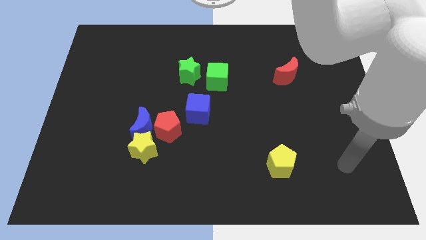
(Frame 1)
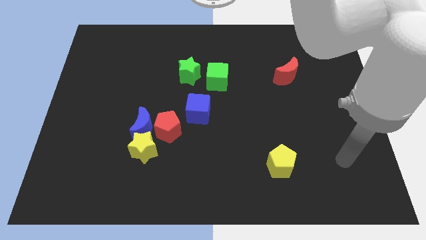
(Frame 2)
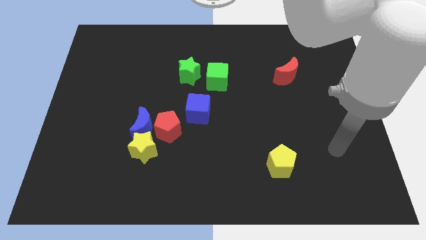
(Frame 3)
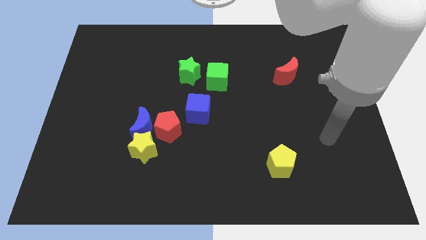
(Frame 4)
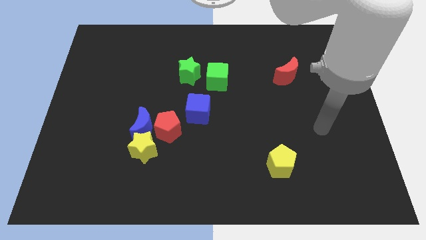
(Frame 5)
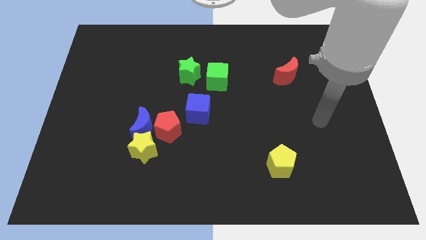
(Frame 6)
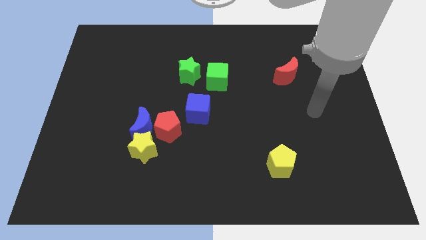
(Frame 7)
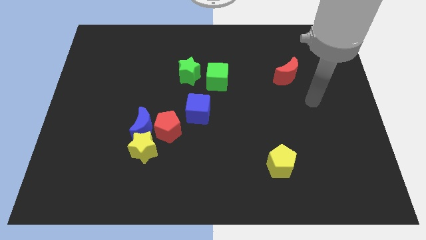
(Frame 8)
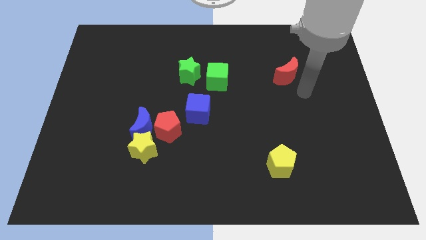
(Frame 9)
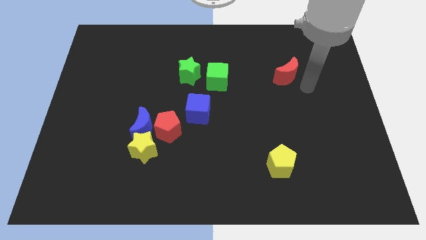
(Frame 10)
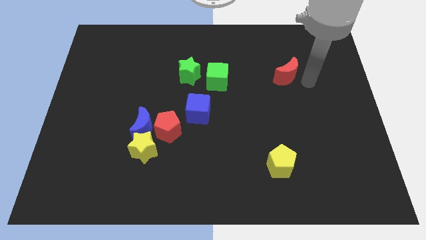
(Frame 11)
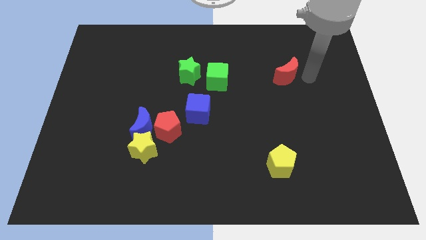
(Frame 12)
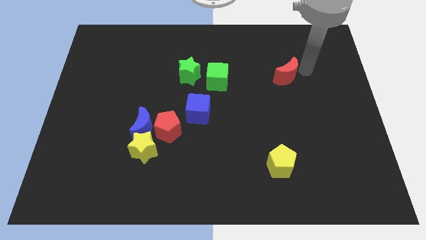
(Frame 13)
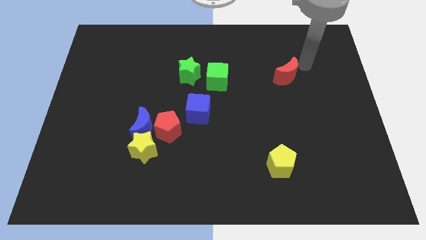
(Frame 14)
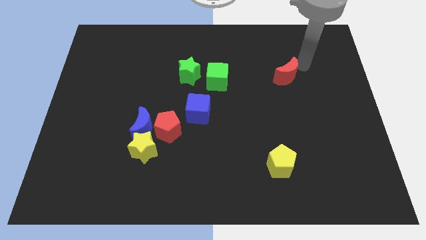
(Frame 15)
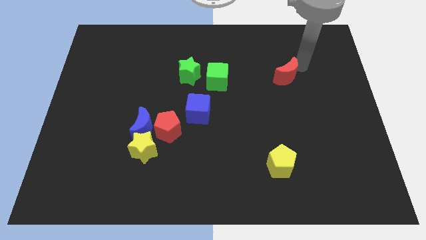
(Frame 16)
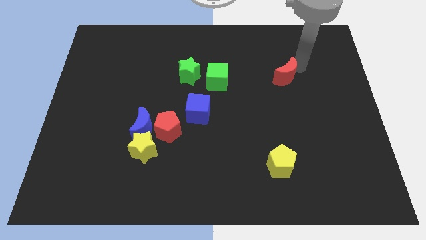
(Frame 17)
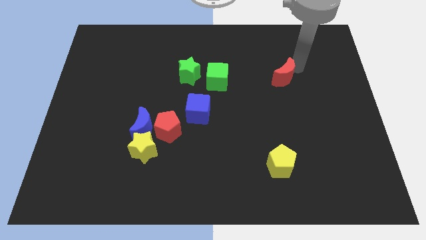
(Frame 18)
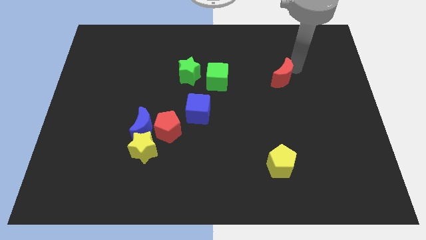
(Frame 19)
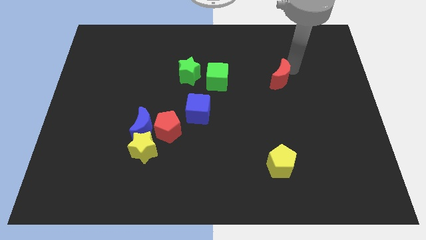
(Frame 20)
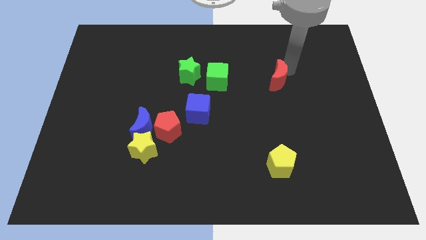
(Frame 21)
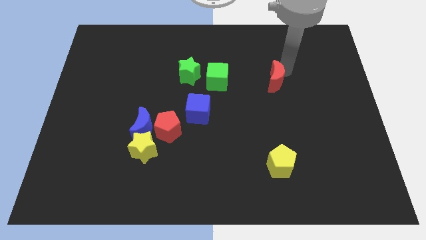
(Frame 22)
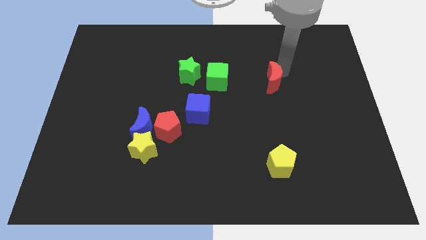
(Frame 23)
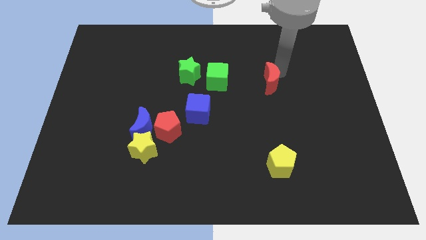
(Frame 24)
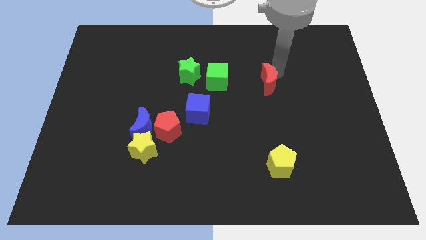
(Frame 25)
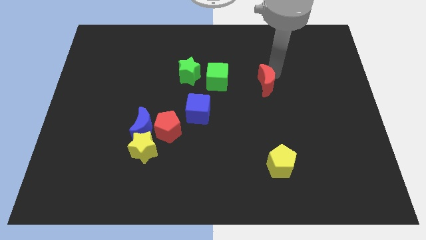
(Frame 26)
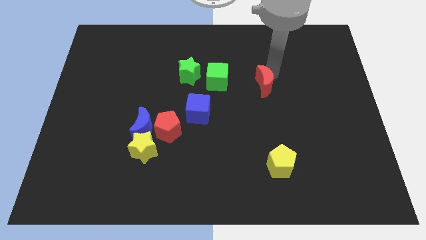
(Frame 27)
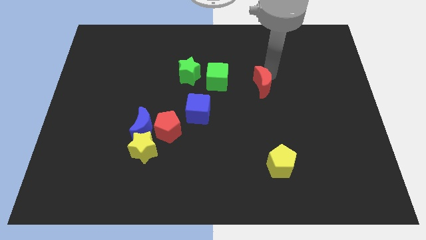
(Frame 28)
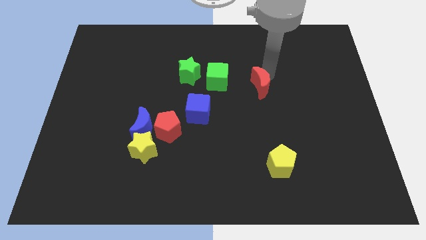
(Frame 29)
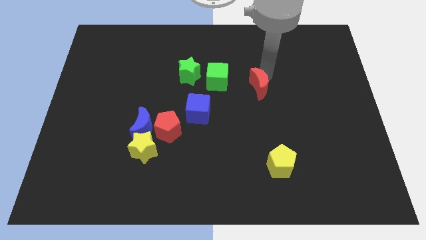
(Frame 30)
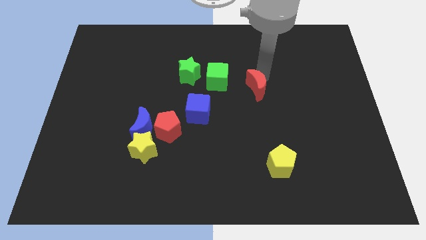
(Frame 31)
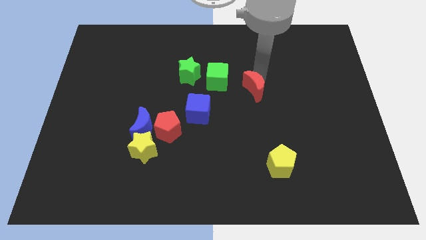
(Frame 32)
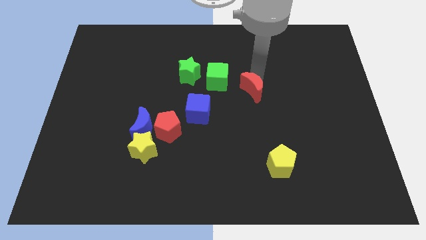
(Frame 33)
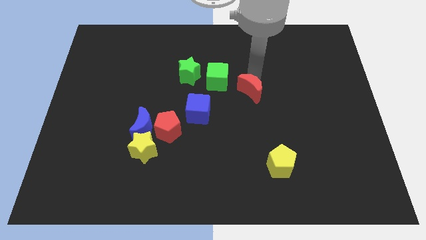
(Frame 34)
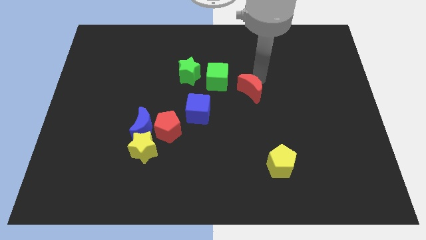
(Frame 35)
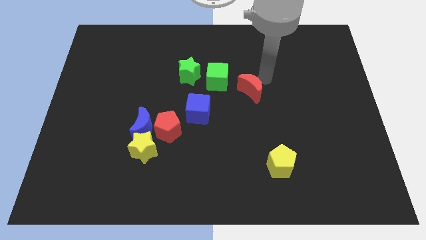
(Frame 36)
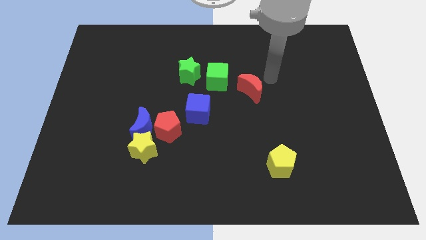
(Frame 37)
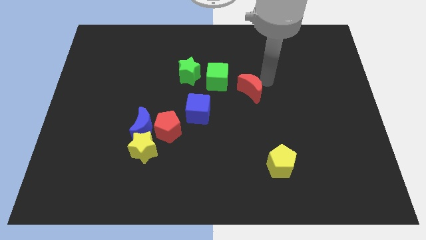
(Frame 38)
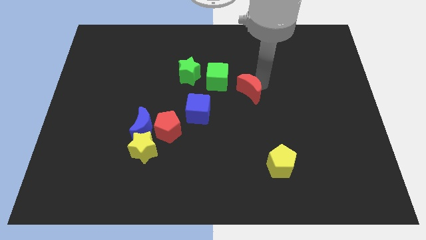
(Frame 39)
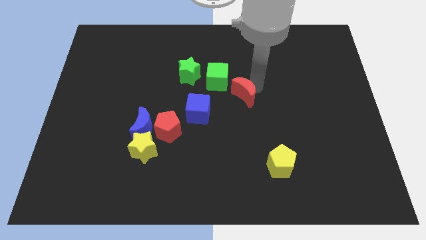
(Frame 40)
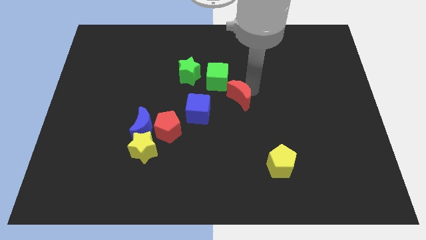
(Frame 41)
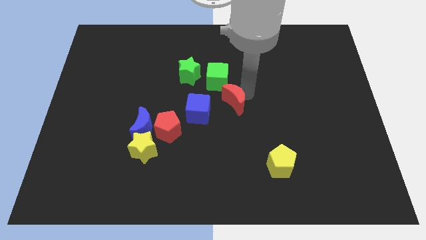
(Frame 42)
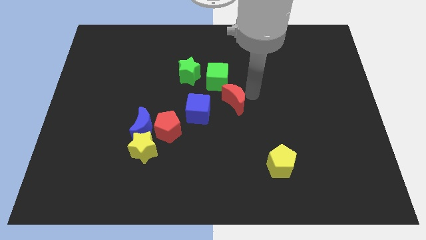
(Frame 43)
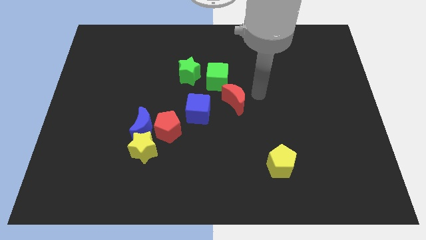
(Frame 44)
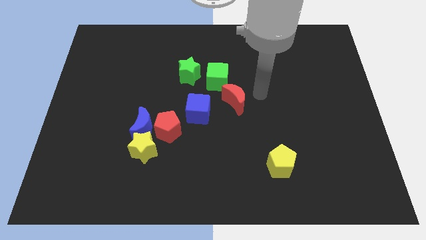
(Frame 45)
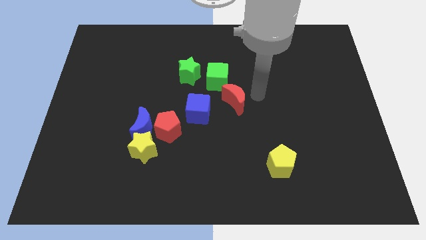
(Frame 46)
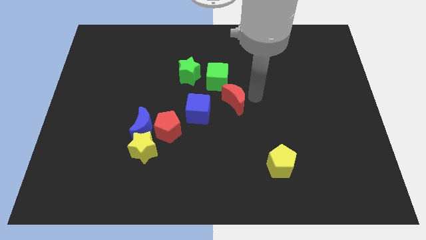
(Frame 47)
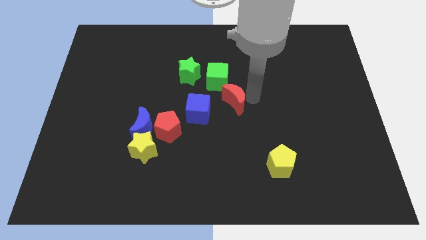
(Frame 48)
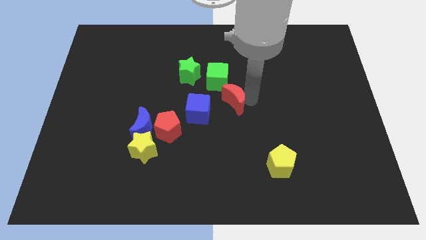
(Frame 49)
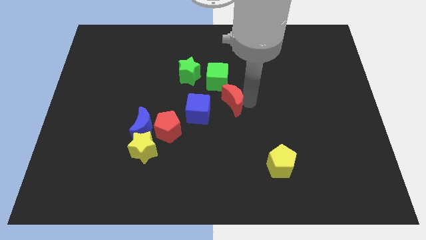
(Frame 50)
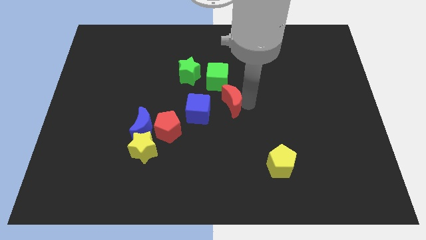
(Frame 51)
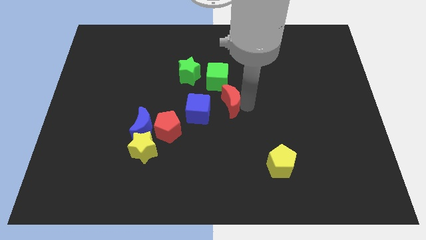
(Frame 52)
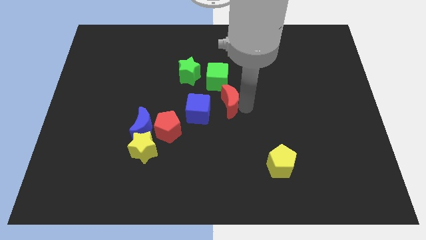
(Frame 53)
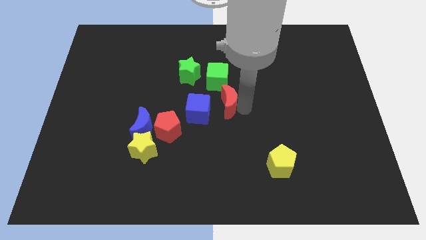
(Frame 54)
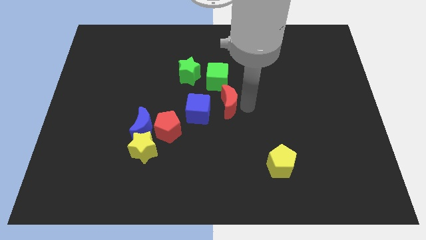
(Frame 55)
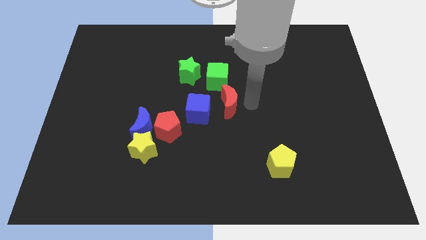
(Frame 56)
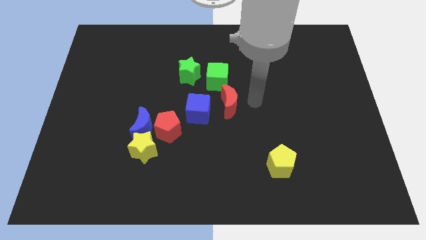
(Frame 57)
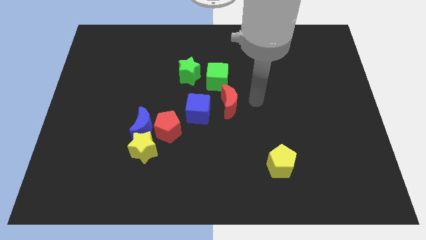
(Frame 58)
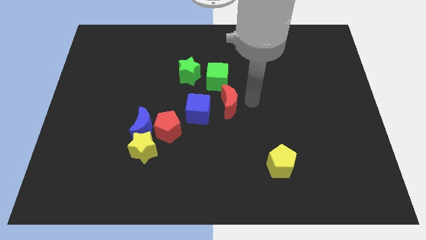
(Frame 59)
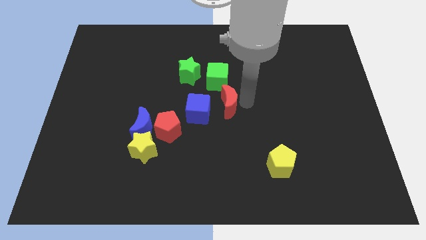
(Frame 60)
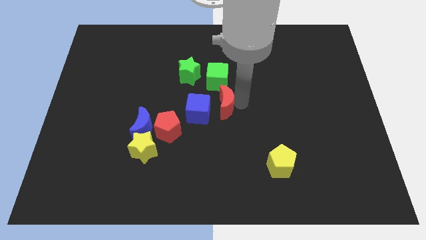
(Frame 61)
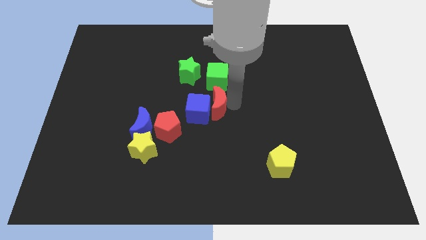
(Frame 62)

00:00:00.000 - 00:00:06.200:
push the red moon towards the blue cube
